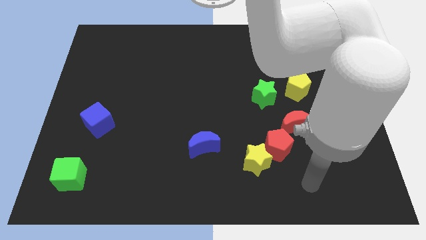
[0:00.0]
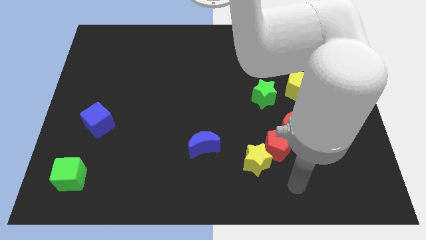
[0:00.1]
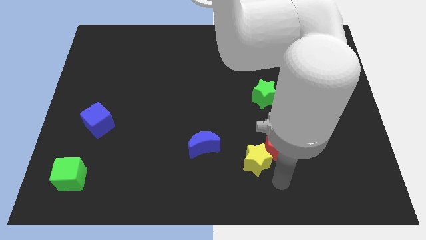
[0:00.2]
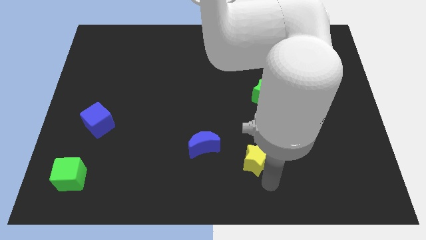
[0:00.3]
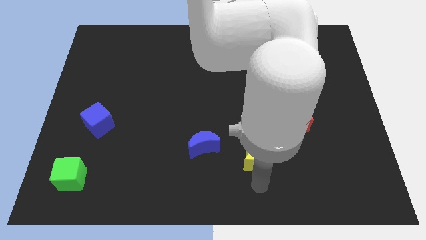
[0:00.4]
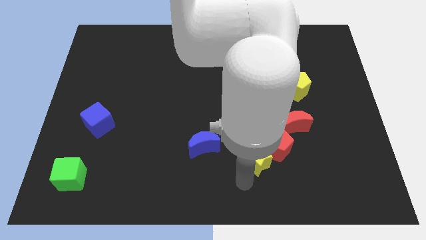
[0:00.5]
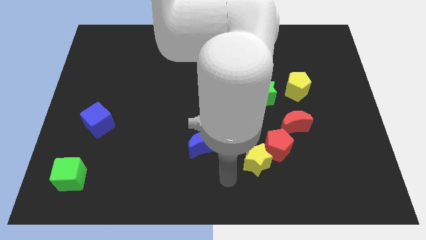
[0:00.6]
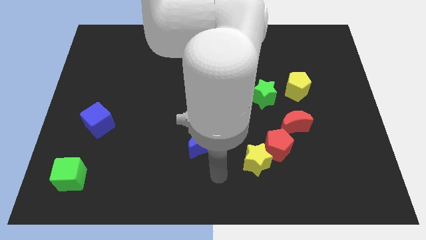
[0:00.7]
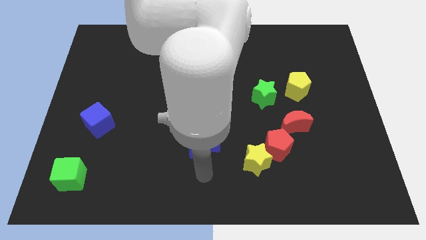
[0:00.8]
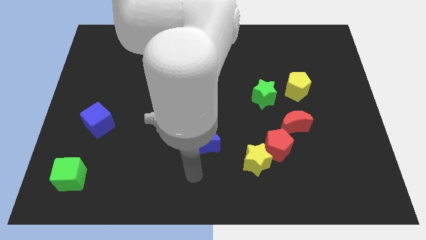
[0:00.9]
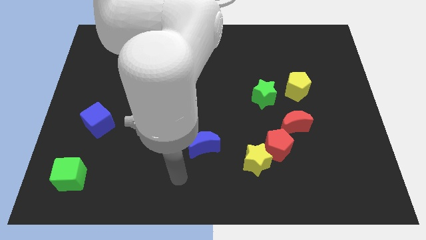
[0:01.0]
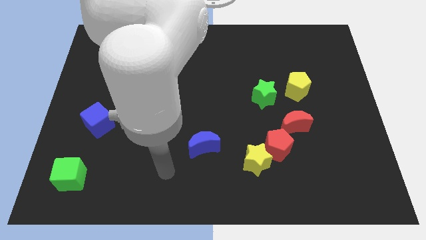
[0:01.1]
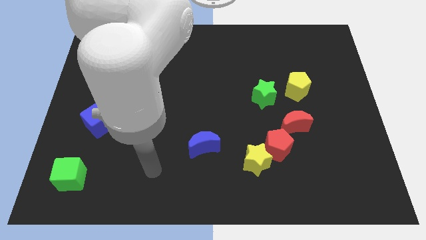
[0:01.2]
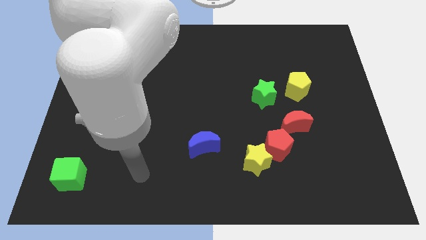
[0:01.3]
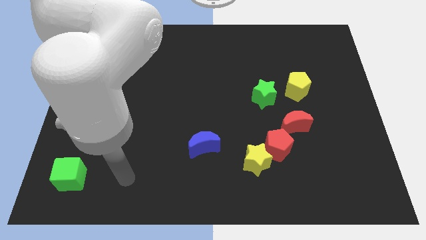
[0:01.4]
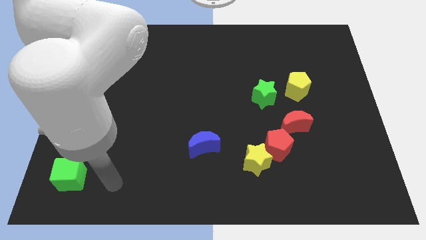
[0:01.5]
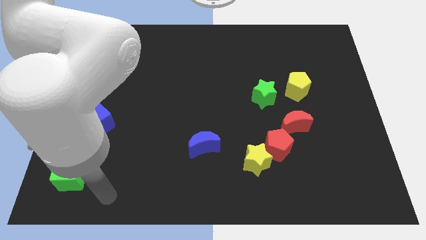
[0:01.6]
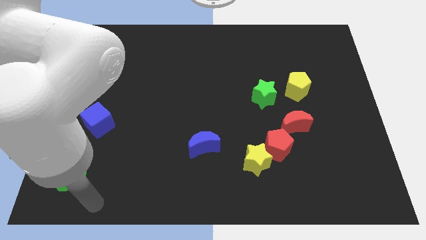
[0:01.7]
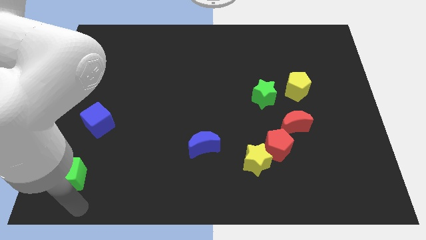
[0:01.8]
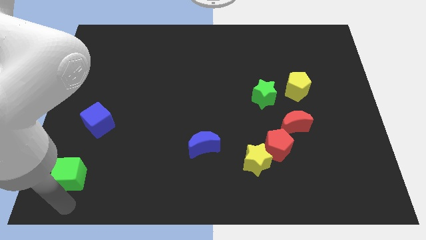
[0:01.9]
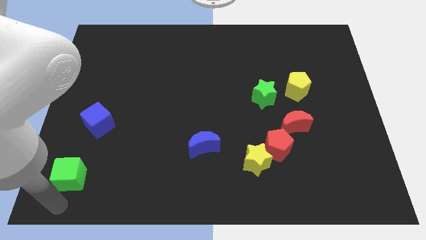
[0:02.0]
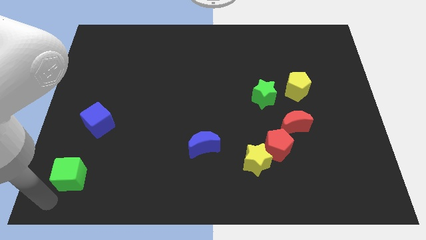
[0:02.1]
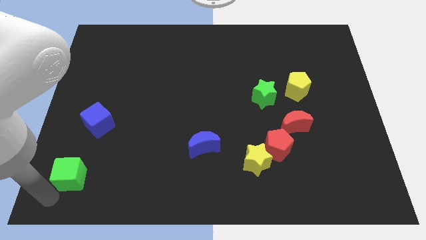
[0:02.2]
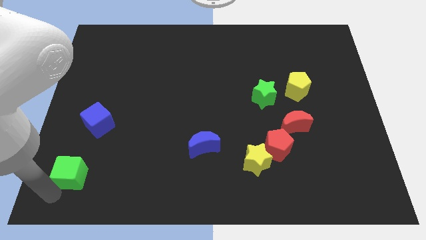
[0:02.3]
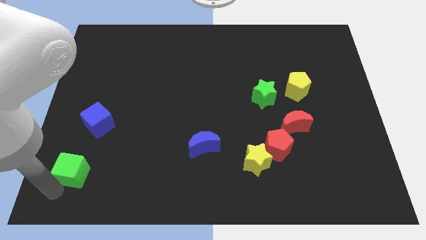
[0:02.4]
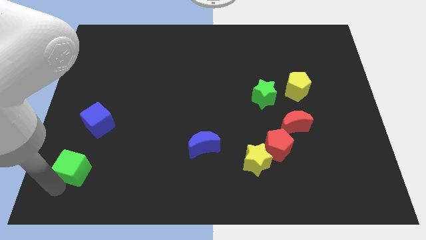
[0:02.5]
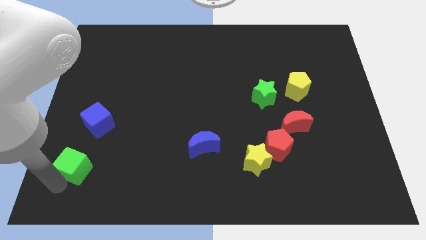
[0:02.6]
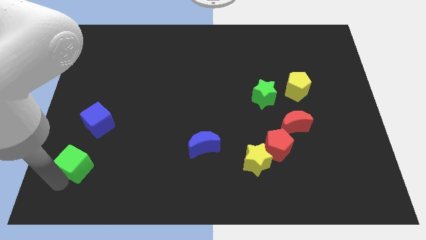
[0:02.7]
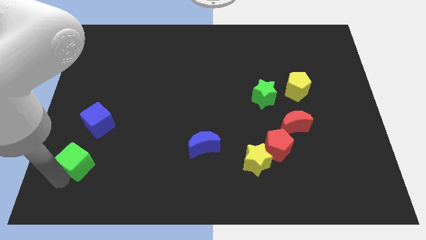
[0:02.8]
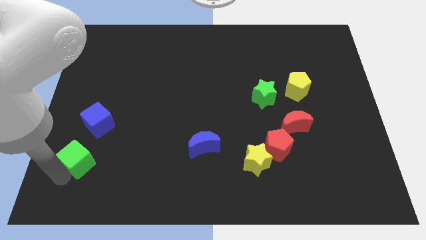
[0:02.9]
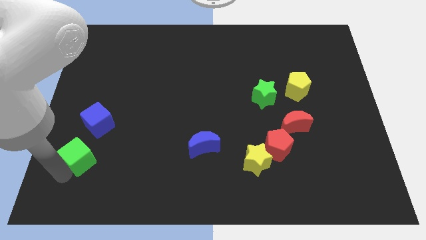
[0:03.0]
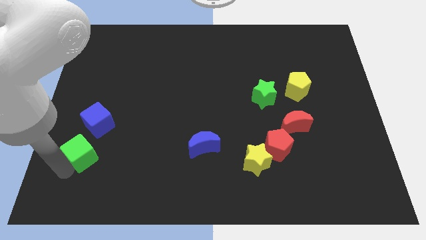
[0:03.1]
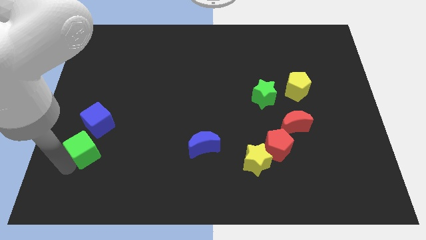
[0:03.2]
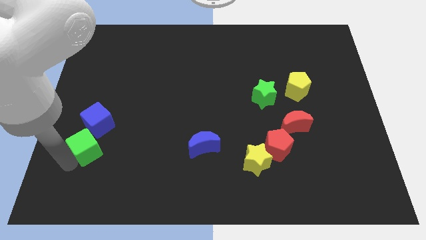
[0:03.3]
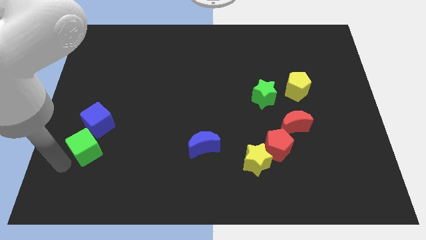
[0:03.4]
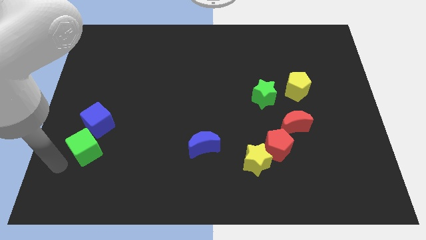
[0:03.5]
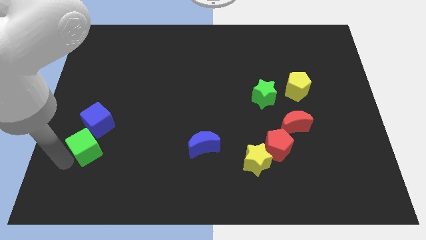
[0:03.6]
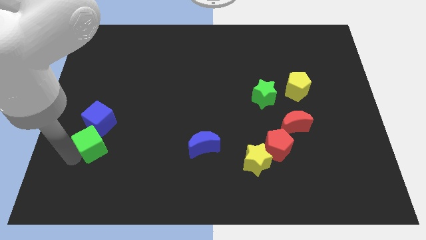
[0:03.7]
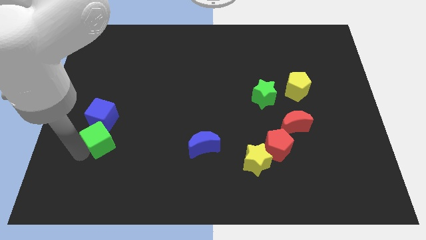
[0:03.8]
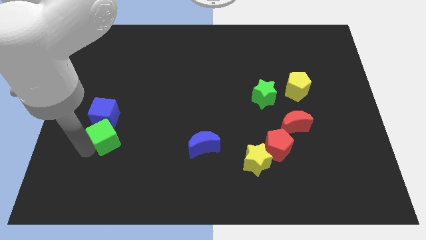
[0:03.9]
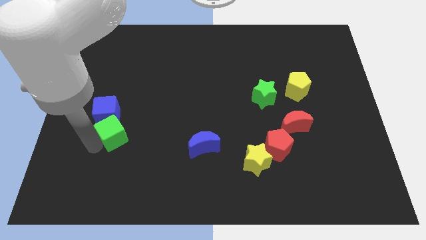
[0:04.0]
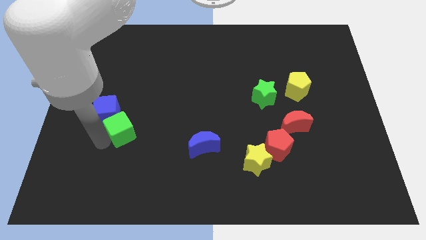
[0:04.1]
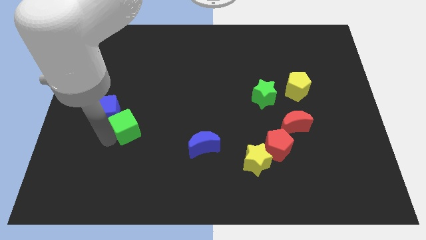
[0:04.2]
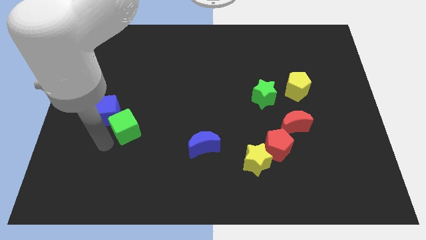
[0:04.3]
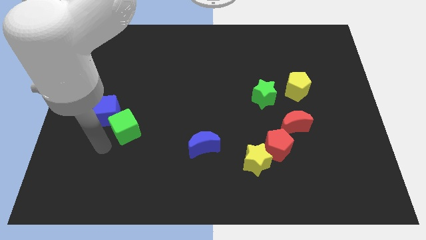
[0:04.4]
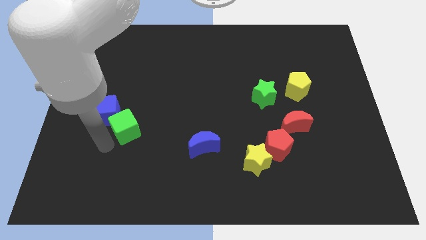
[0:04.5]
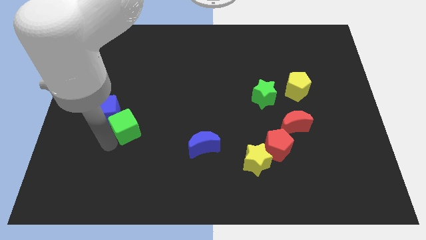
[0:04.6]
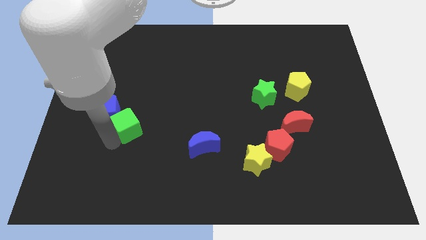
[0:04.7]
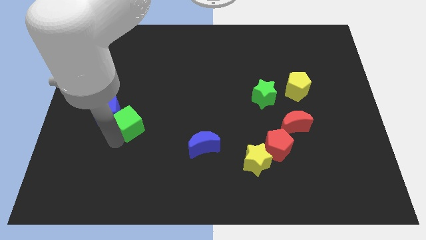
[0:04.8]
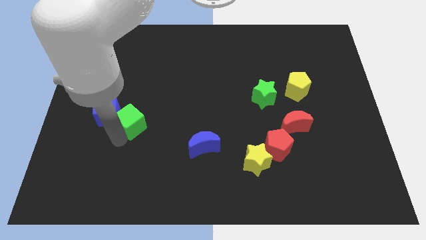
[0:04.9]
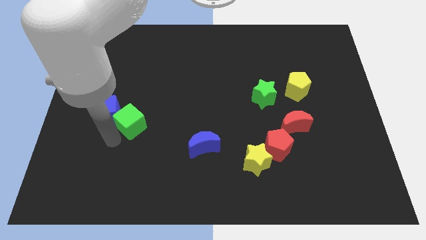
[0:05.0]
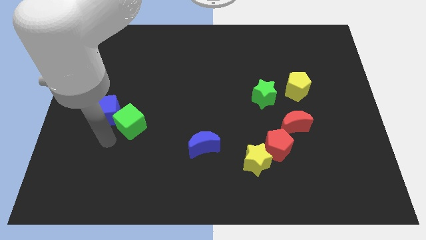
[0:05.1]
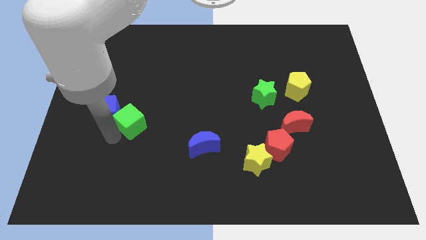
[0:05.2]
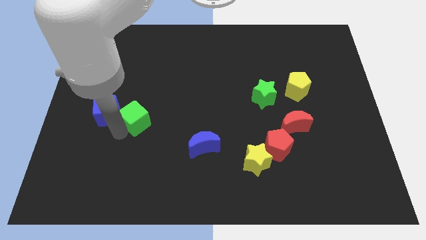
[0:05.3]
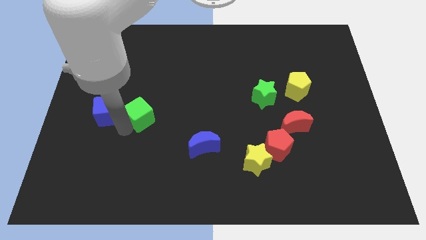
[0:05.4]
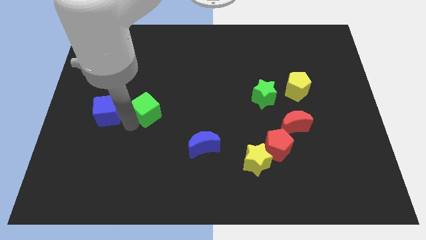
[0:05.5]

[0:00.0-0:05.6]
move the green cube up and then to the right

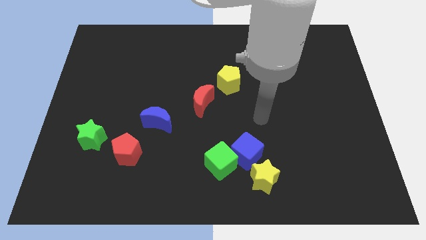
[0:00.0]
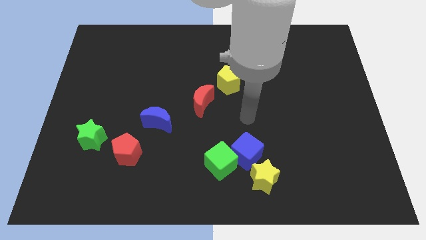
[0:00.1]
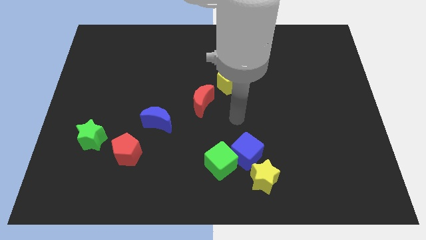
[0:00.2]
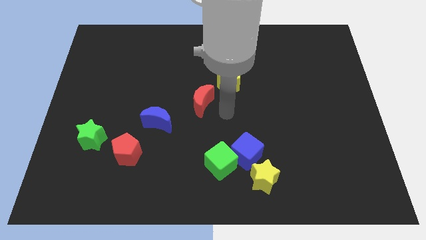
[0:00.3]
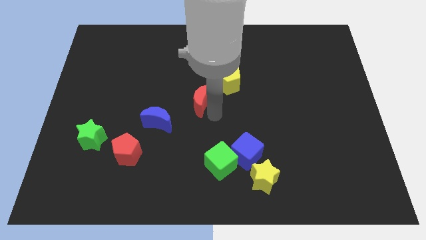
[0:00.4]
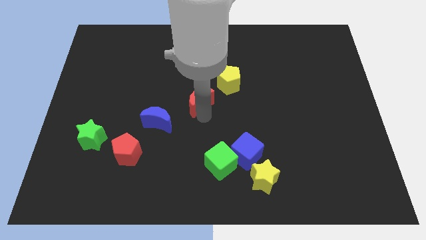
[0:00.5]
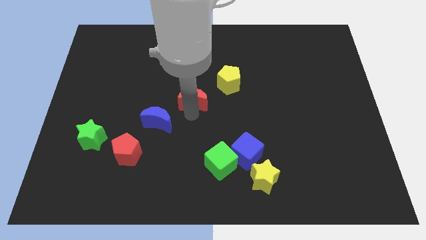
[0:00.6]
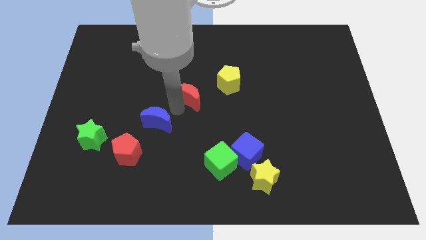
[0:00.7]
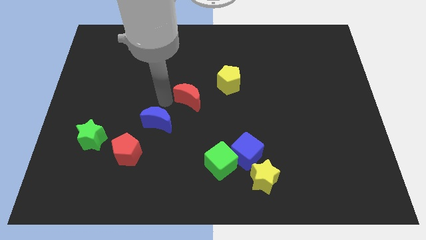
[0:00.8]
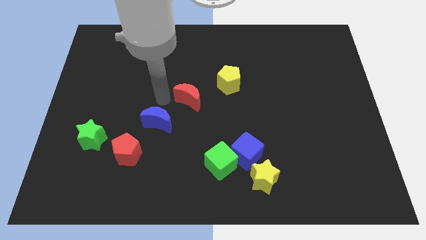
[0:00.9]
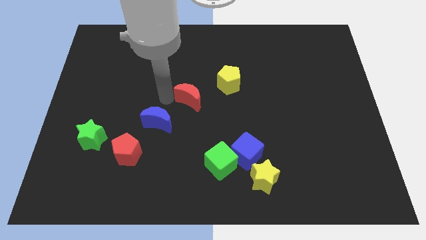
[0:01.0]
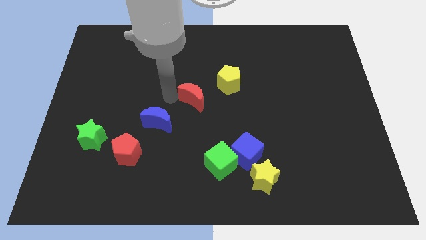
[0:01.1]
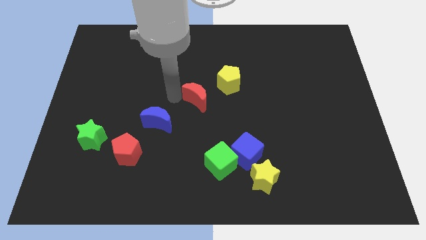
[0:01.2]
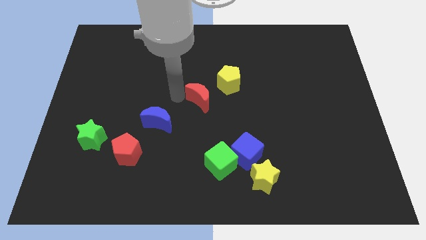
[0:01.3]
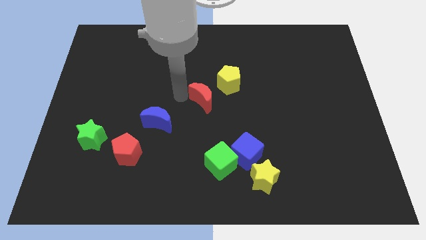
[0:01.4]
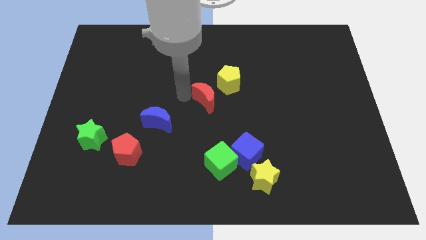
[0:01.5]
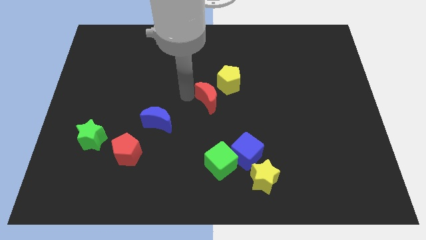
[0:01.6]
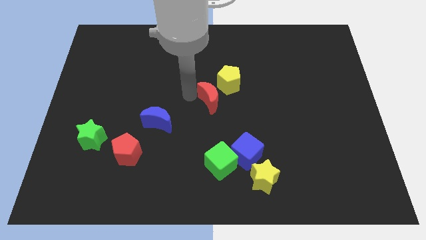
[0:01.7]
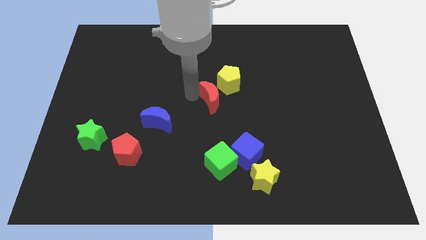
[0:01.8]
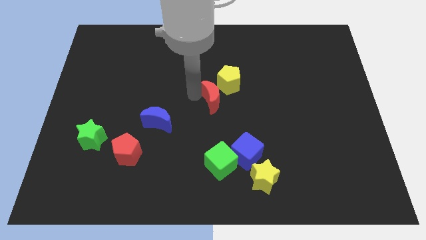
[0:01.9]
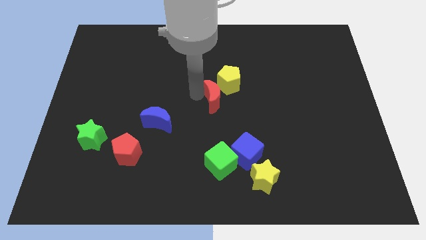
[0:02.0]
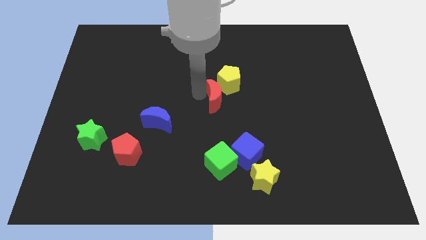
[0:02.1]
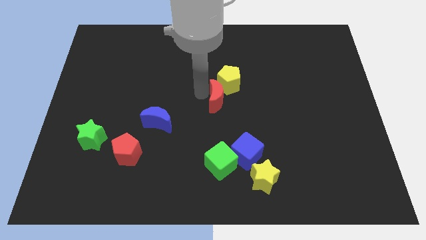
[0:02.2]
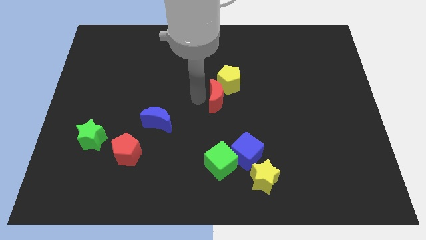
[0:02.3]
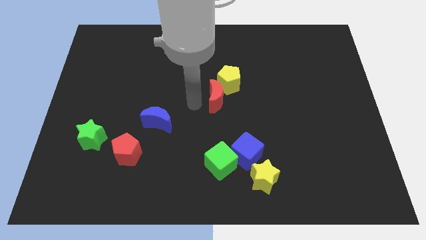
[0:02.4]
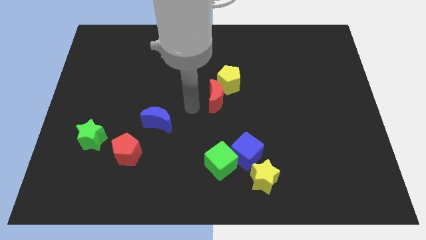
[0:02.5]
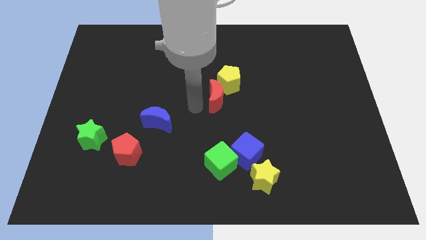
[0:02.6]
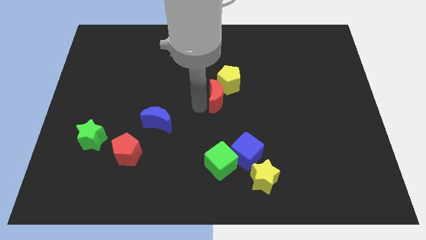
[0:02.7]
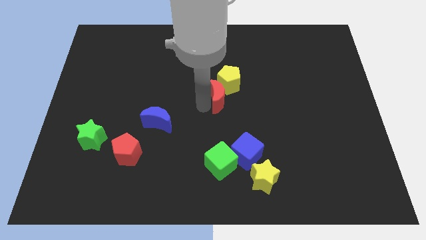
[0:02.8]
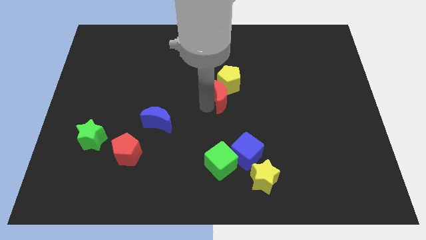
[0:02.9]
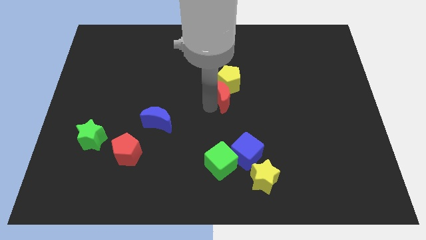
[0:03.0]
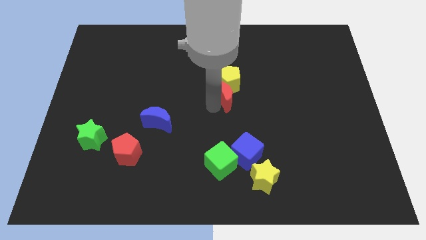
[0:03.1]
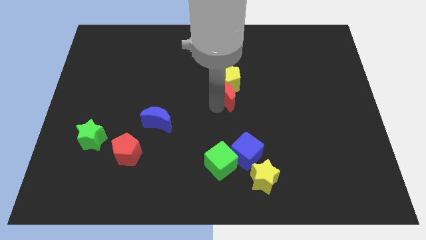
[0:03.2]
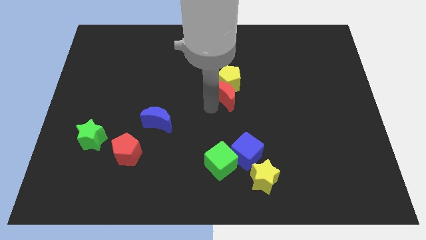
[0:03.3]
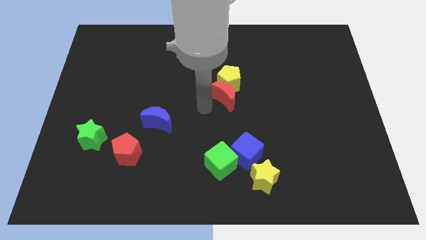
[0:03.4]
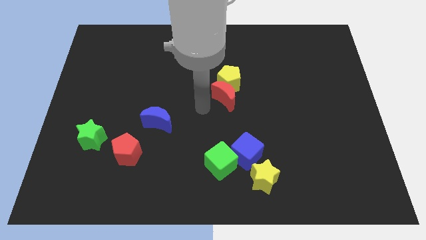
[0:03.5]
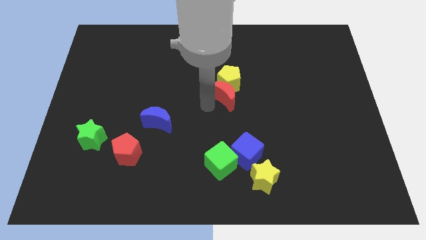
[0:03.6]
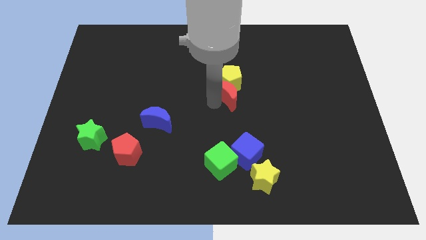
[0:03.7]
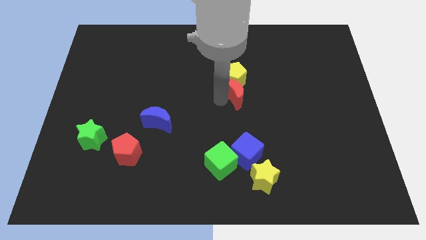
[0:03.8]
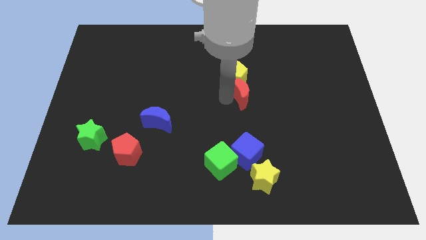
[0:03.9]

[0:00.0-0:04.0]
slightly move the red moon diagonally upwards and right
